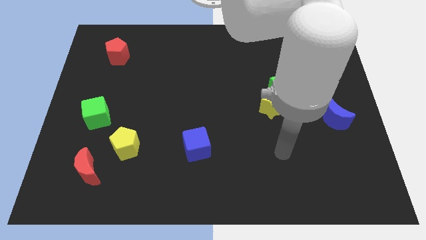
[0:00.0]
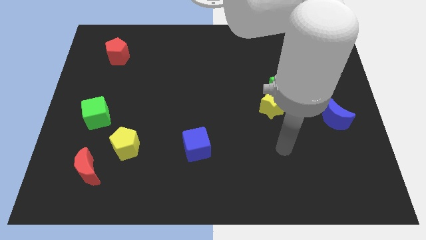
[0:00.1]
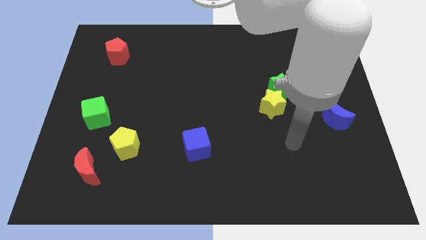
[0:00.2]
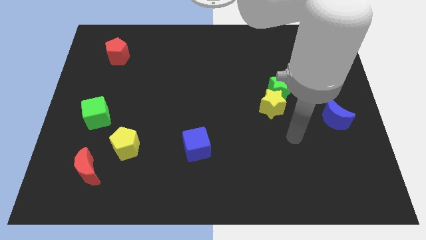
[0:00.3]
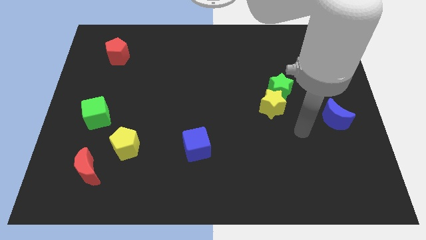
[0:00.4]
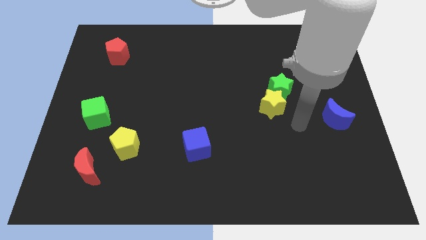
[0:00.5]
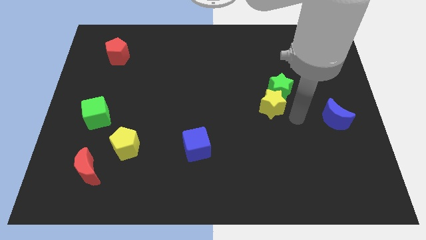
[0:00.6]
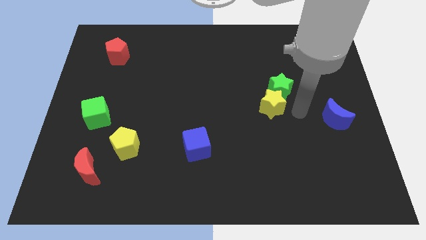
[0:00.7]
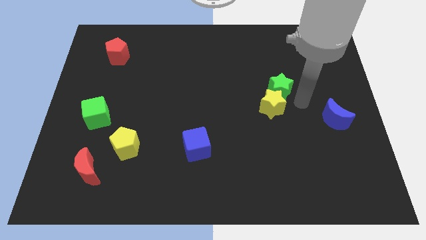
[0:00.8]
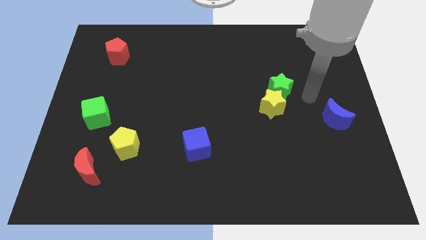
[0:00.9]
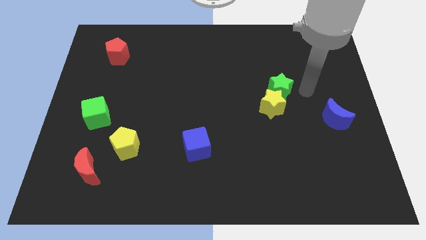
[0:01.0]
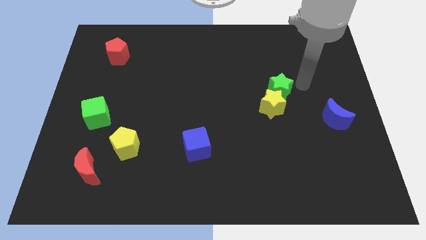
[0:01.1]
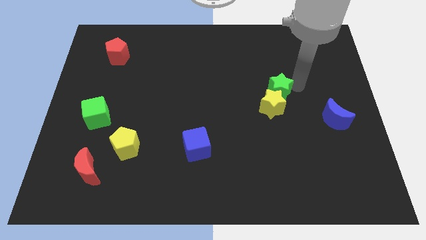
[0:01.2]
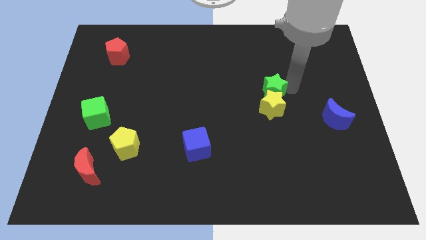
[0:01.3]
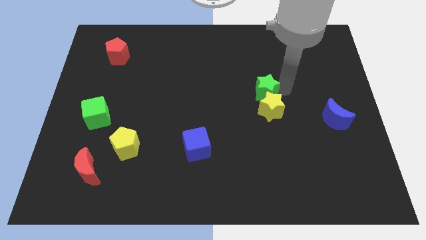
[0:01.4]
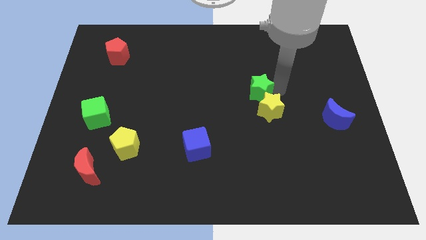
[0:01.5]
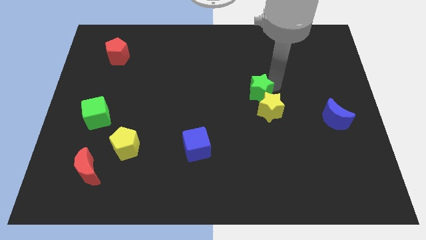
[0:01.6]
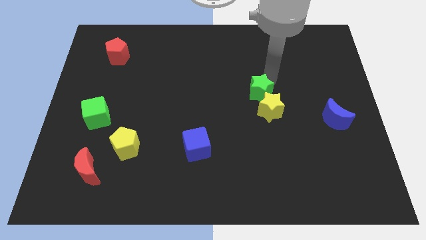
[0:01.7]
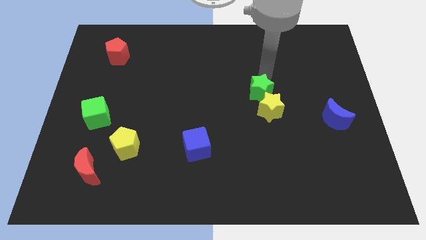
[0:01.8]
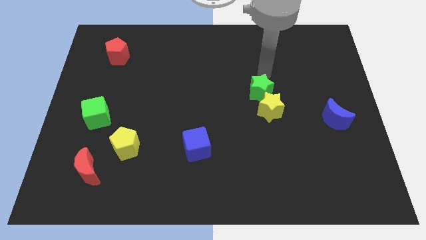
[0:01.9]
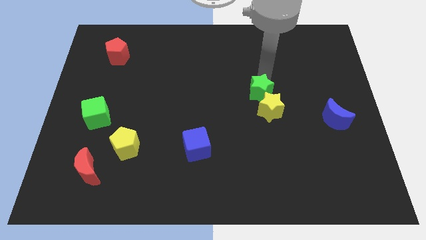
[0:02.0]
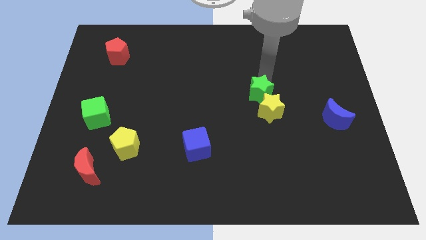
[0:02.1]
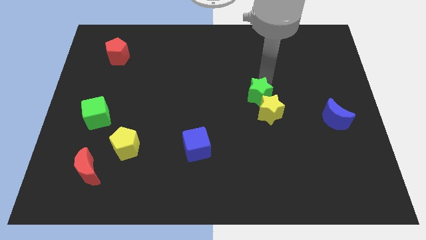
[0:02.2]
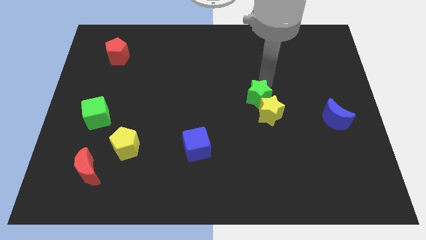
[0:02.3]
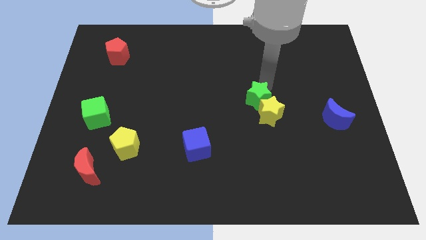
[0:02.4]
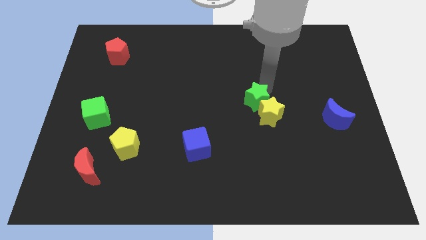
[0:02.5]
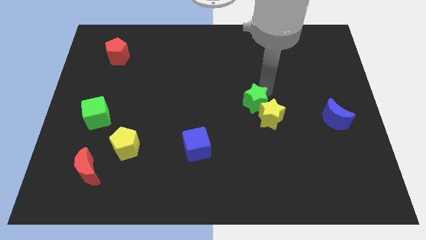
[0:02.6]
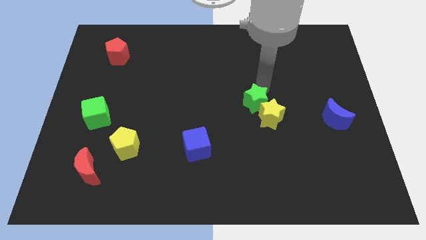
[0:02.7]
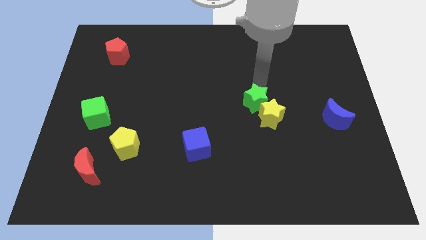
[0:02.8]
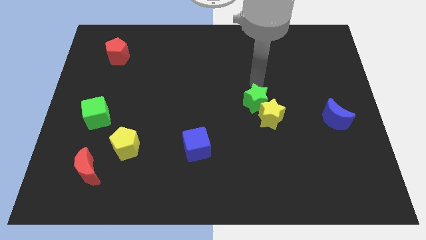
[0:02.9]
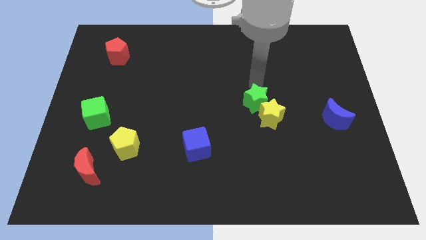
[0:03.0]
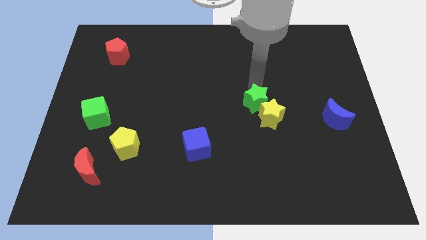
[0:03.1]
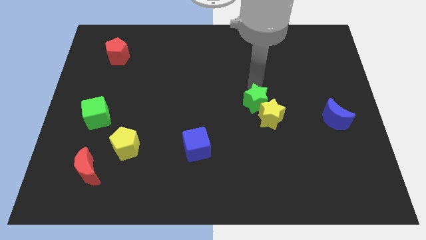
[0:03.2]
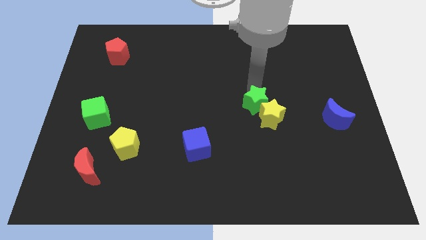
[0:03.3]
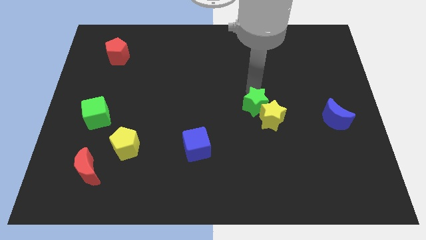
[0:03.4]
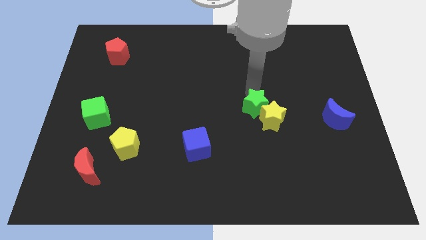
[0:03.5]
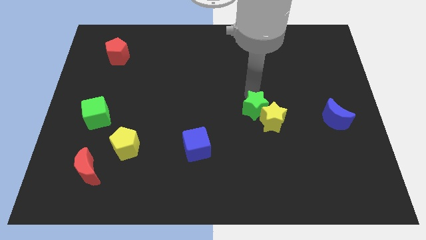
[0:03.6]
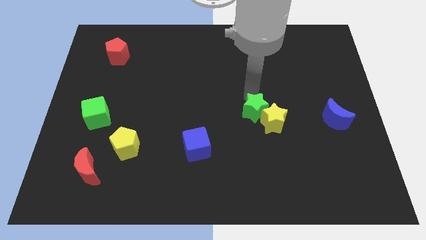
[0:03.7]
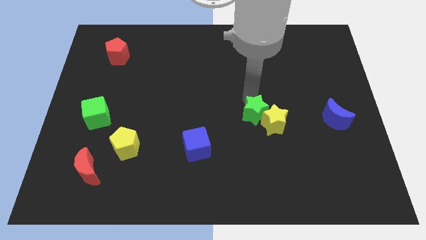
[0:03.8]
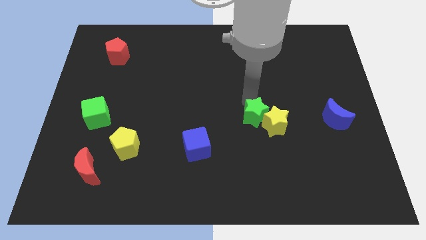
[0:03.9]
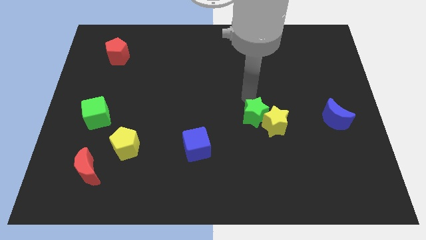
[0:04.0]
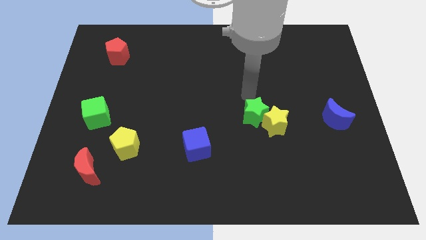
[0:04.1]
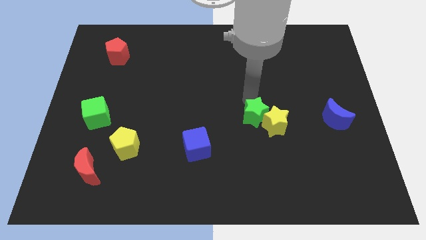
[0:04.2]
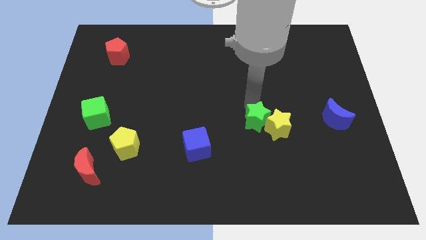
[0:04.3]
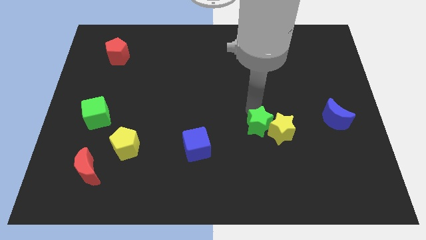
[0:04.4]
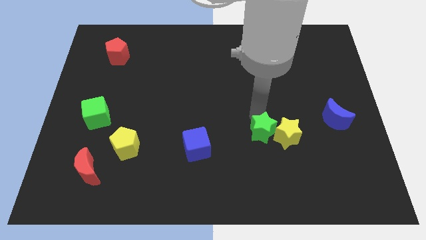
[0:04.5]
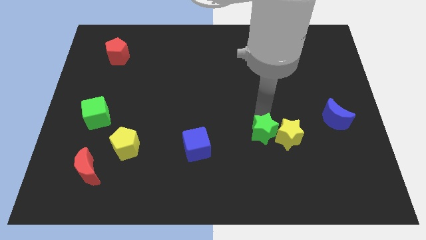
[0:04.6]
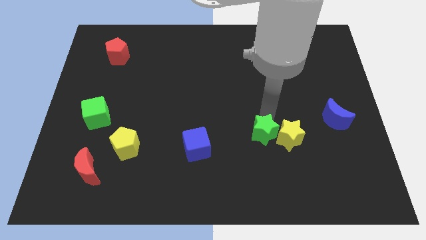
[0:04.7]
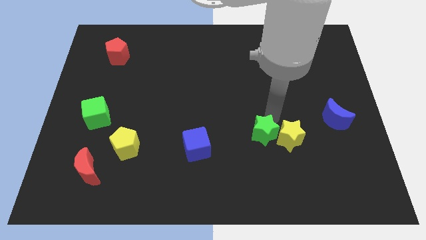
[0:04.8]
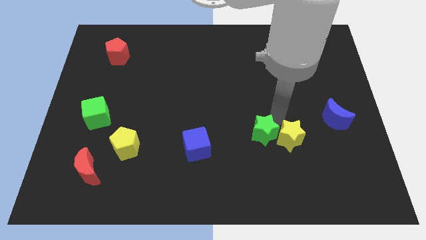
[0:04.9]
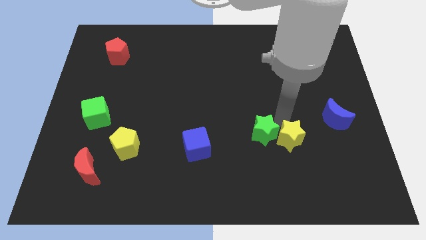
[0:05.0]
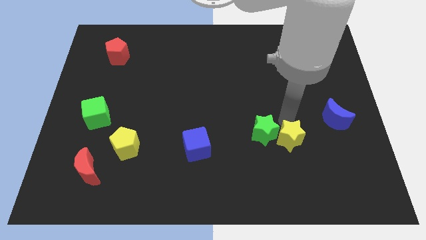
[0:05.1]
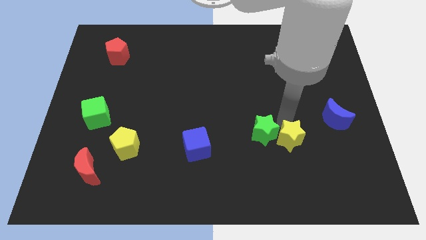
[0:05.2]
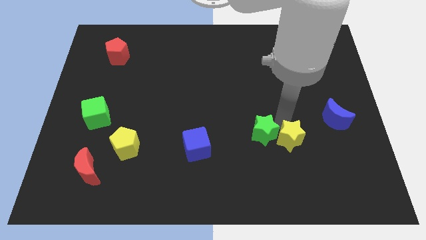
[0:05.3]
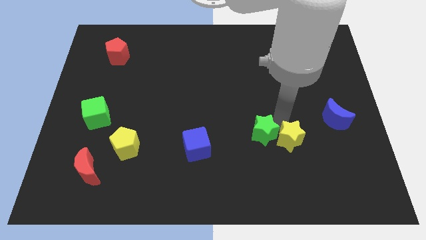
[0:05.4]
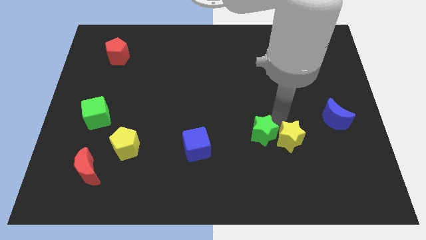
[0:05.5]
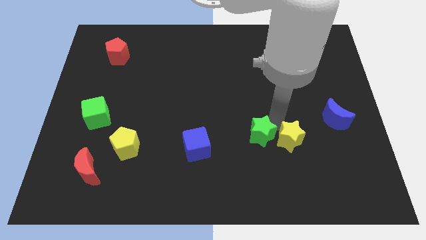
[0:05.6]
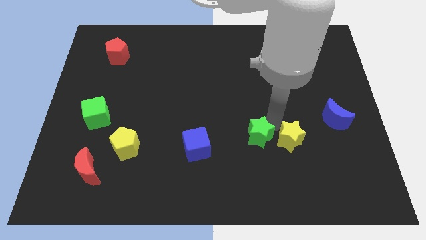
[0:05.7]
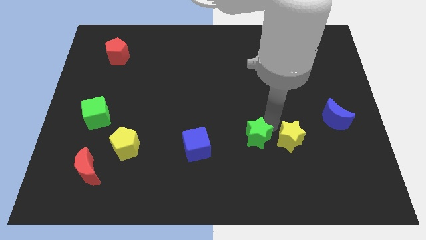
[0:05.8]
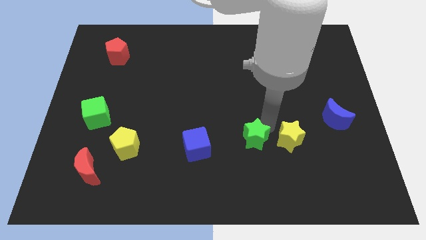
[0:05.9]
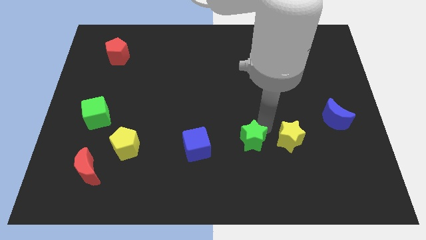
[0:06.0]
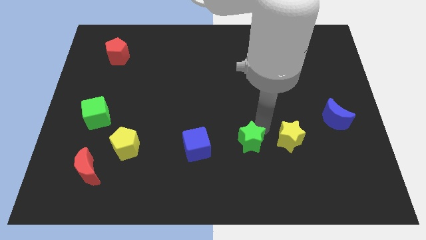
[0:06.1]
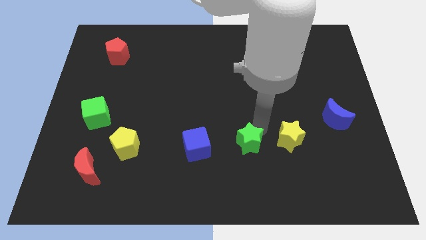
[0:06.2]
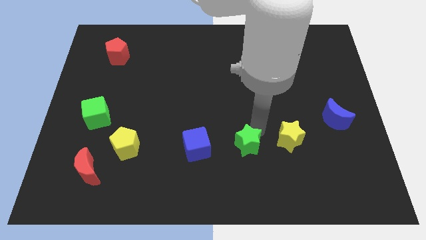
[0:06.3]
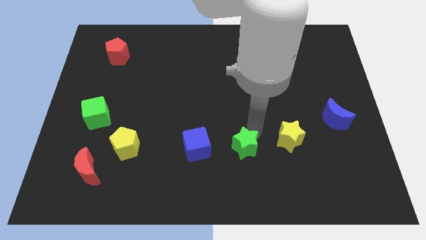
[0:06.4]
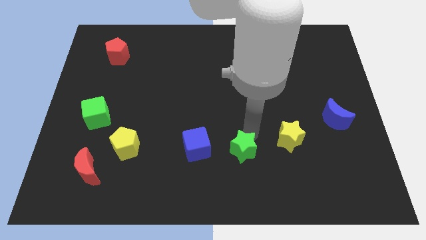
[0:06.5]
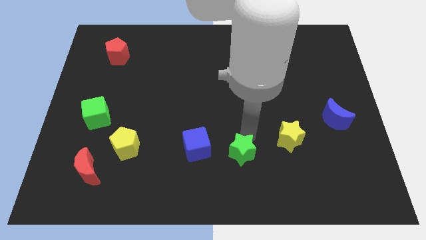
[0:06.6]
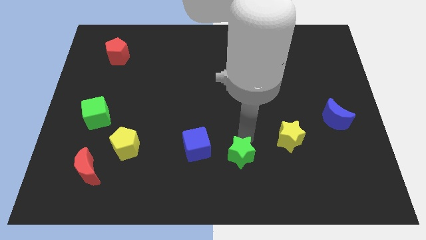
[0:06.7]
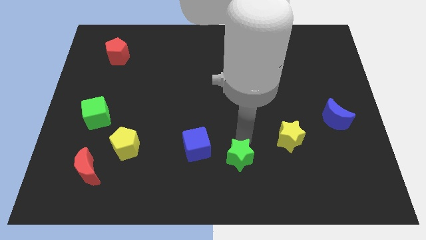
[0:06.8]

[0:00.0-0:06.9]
slide the green star to the bottom side
